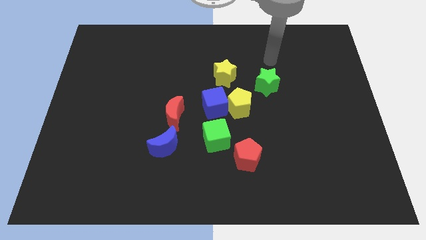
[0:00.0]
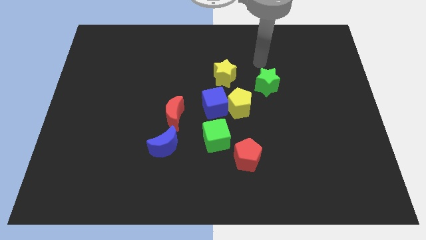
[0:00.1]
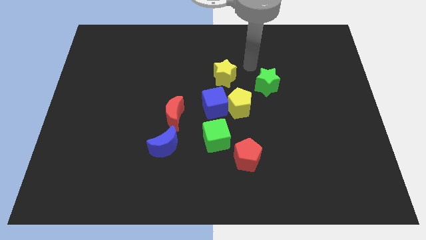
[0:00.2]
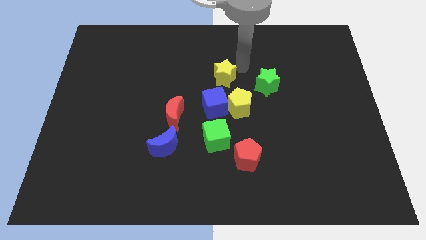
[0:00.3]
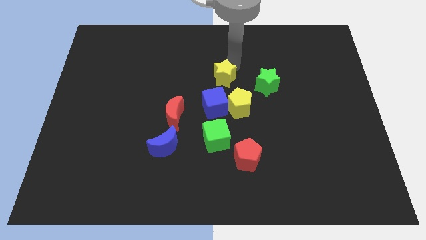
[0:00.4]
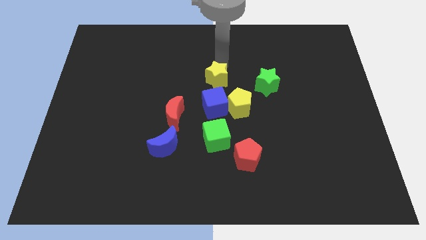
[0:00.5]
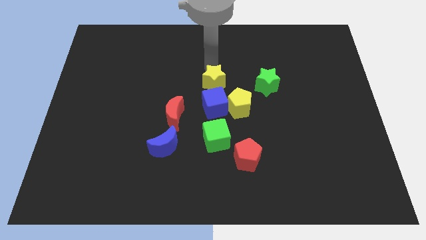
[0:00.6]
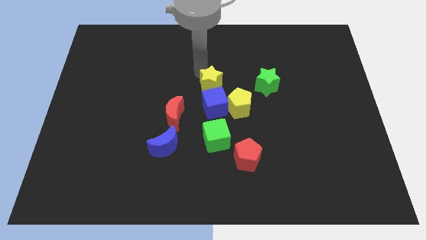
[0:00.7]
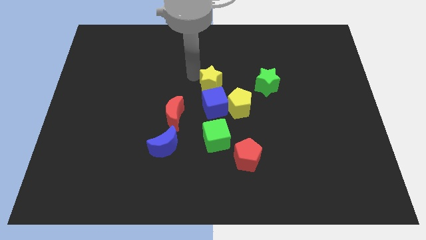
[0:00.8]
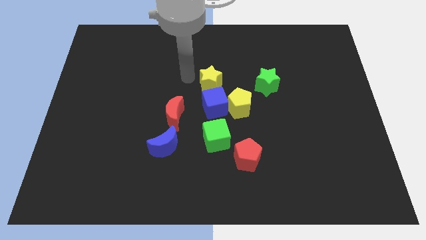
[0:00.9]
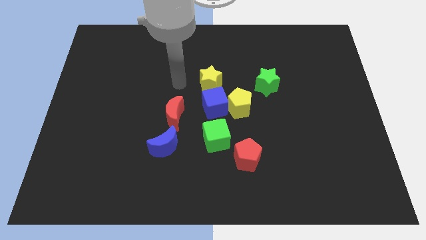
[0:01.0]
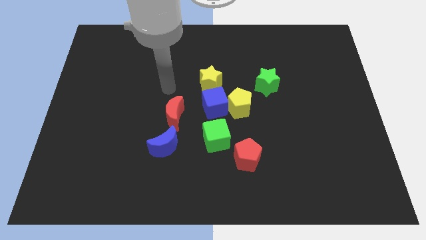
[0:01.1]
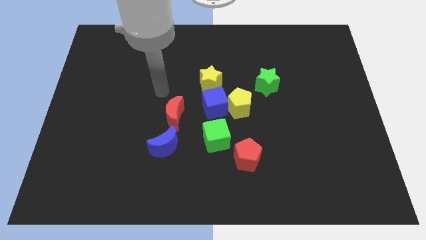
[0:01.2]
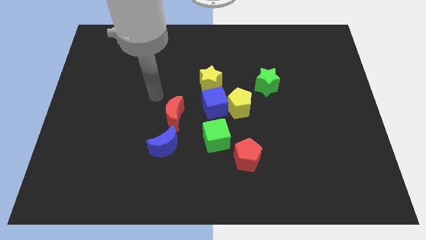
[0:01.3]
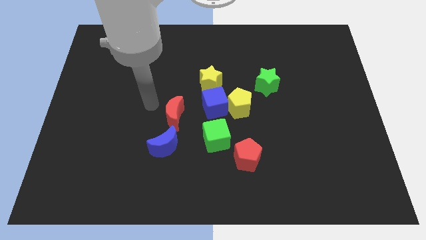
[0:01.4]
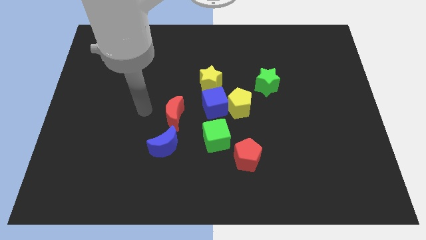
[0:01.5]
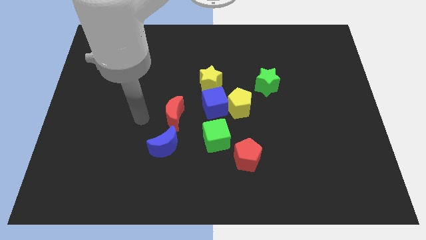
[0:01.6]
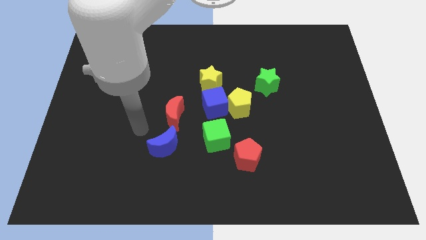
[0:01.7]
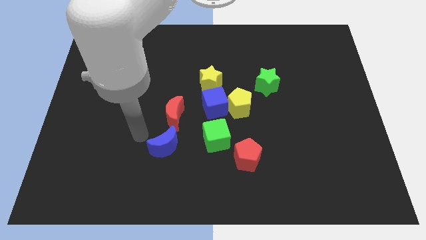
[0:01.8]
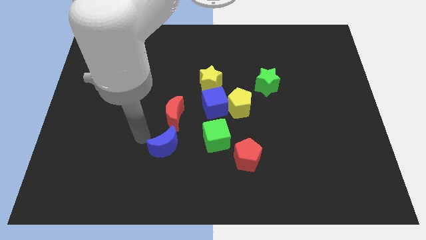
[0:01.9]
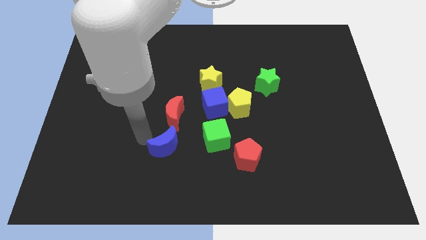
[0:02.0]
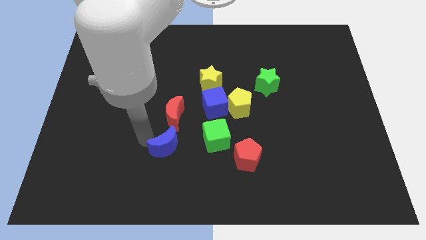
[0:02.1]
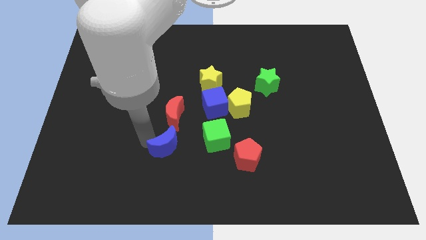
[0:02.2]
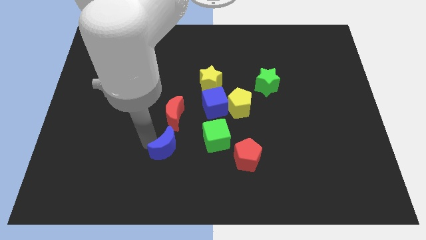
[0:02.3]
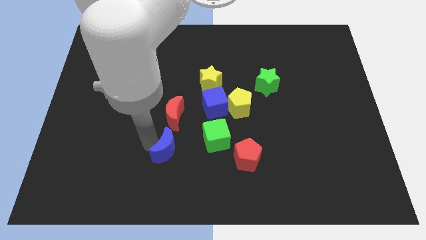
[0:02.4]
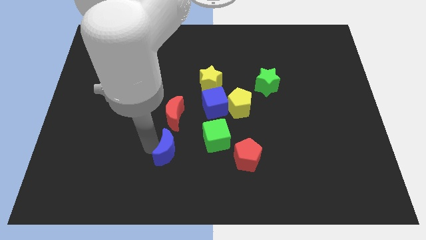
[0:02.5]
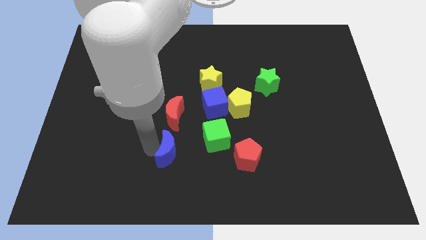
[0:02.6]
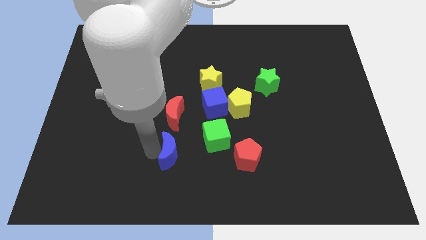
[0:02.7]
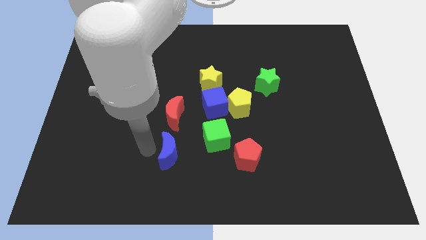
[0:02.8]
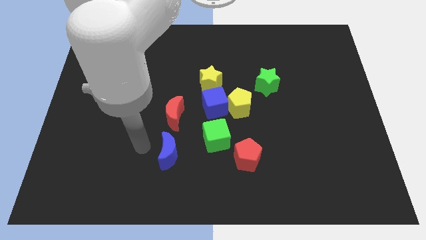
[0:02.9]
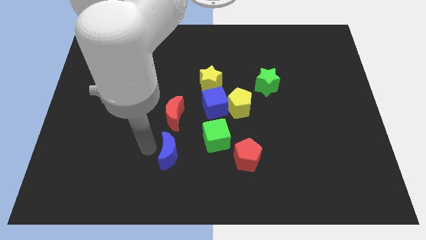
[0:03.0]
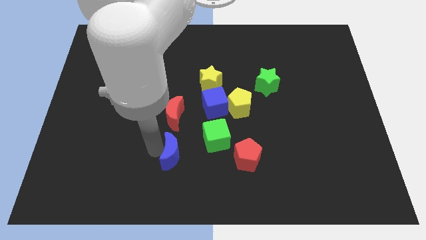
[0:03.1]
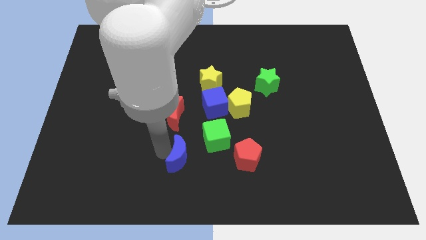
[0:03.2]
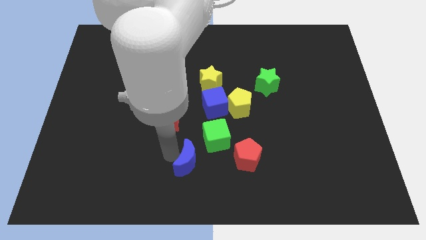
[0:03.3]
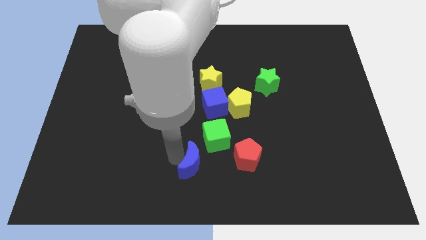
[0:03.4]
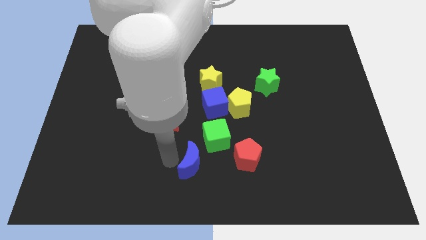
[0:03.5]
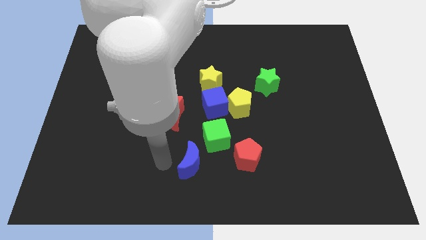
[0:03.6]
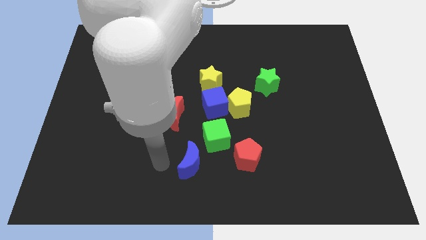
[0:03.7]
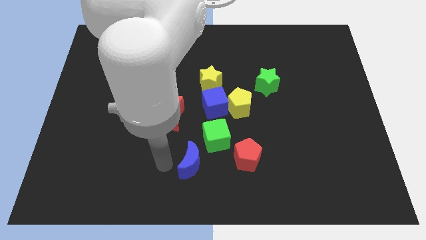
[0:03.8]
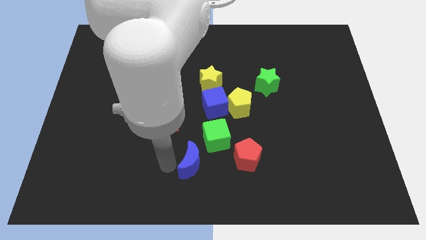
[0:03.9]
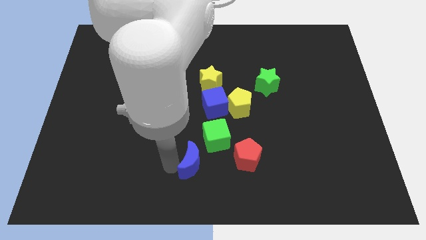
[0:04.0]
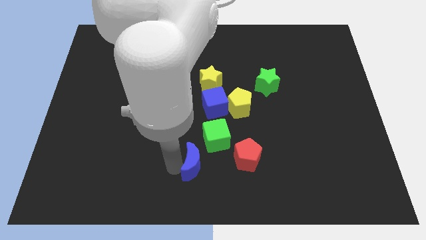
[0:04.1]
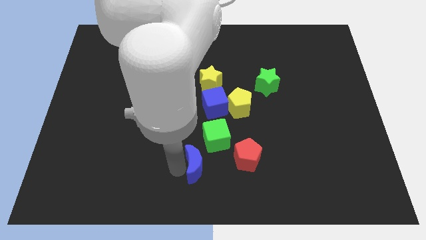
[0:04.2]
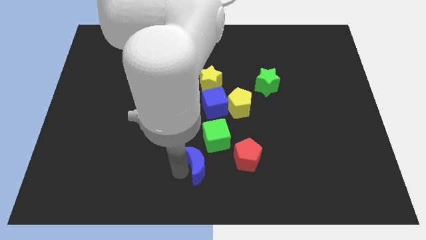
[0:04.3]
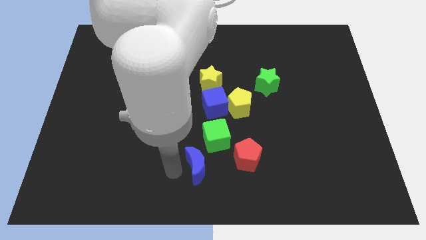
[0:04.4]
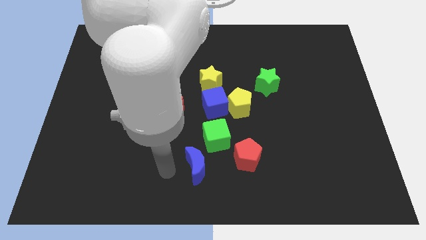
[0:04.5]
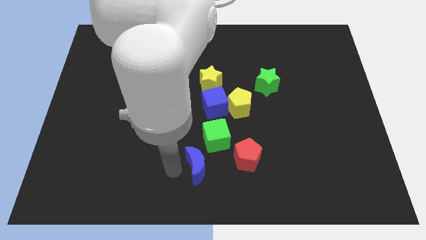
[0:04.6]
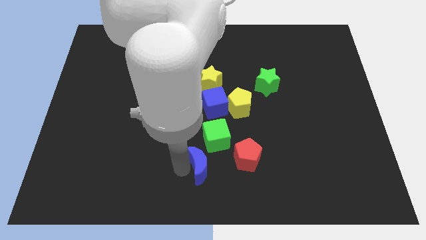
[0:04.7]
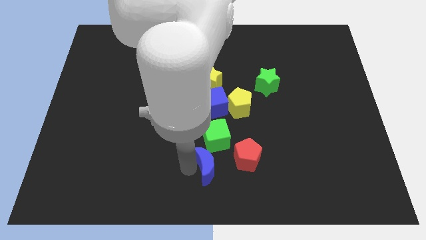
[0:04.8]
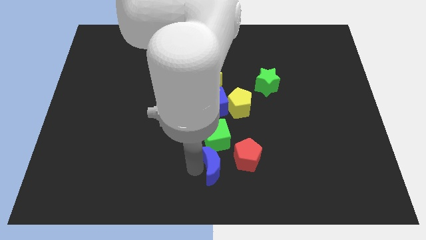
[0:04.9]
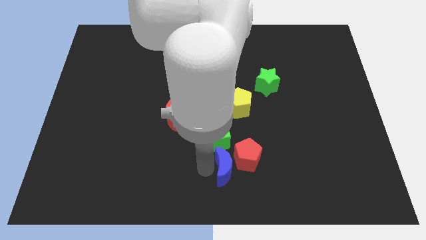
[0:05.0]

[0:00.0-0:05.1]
push the blue moon to the red pentagon

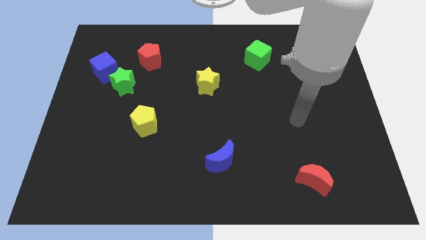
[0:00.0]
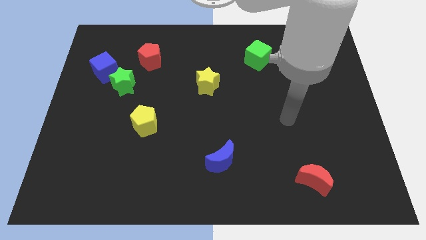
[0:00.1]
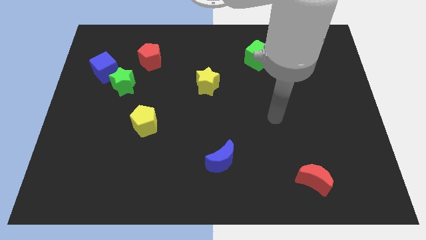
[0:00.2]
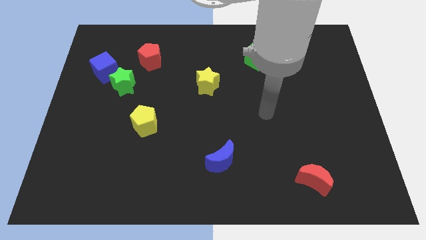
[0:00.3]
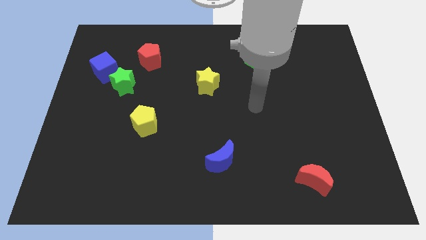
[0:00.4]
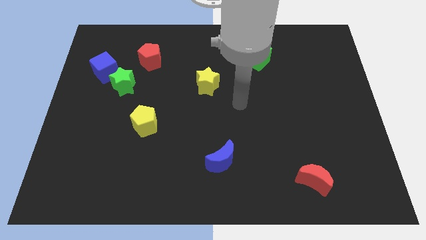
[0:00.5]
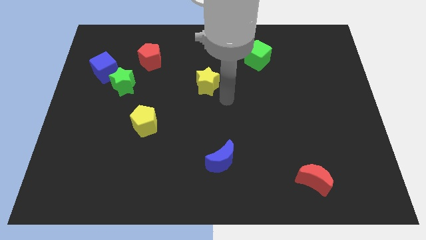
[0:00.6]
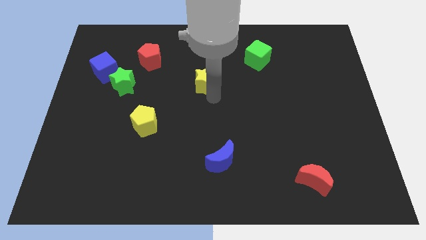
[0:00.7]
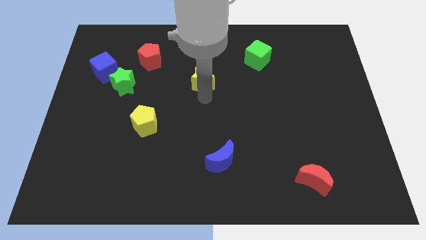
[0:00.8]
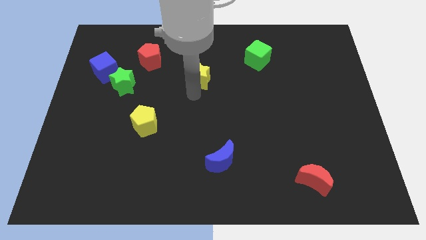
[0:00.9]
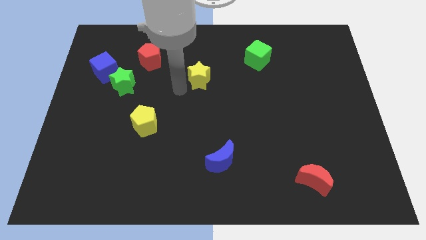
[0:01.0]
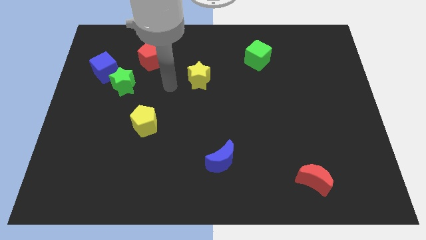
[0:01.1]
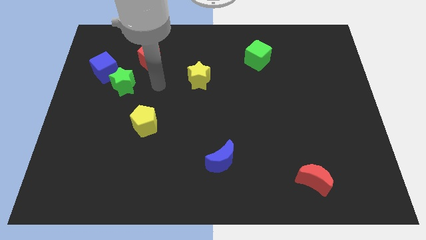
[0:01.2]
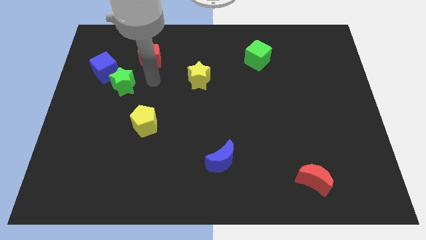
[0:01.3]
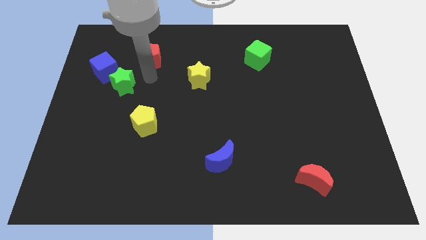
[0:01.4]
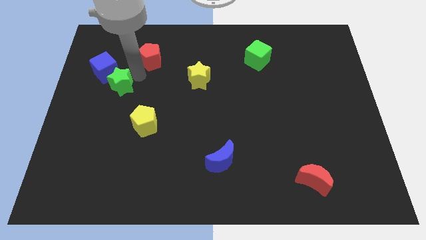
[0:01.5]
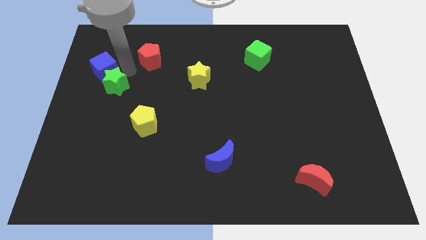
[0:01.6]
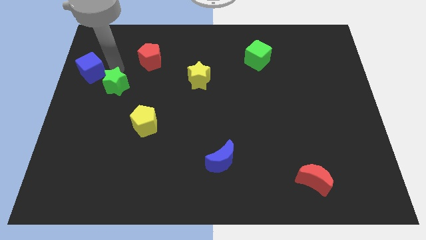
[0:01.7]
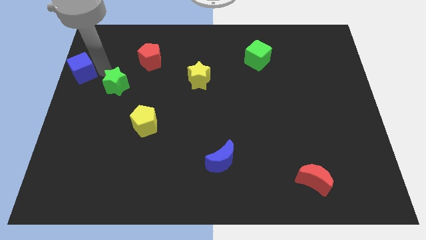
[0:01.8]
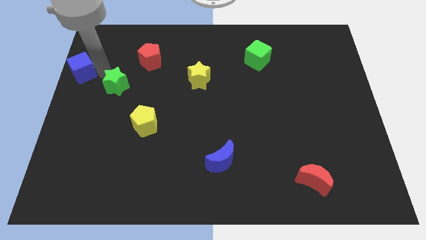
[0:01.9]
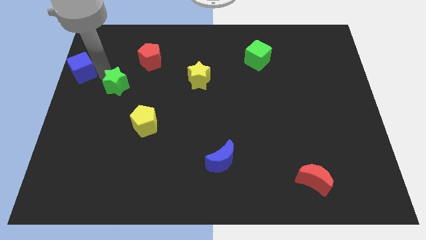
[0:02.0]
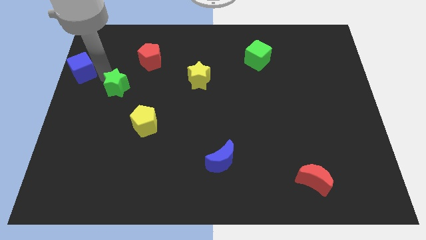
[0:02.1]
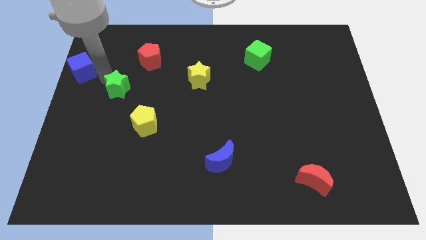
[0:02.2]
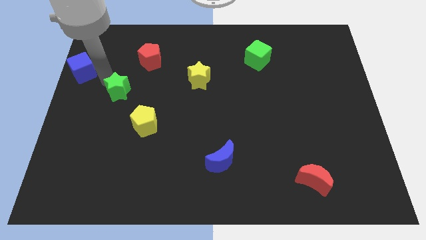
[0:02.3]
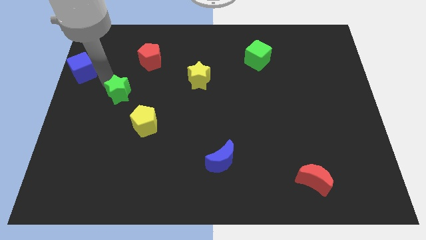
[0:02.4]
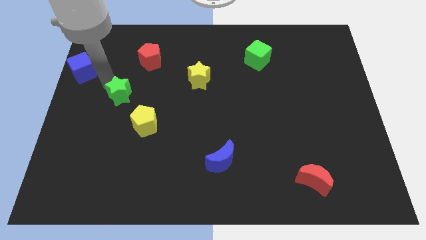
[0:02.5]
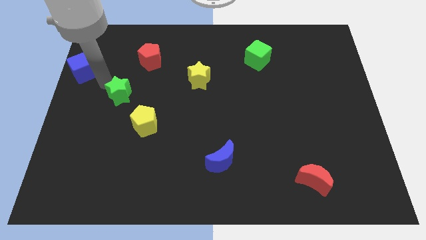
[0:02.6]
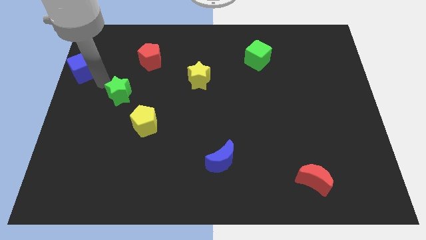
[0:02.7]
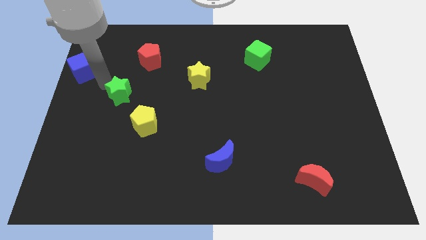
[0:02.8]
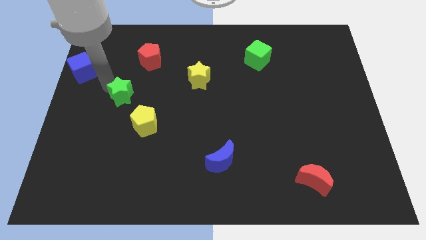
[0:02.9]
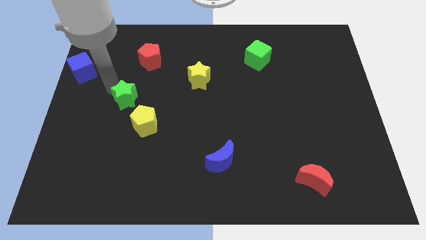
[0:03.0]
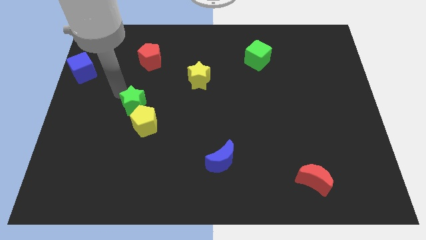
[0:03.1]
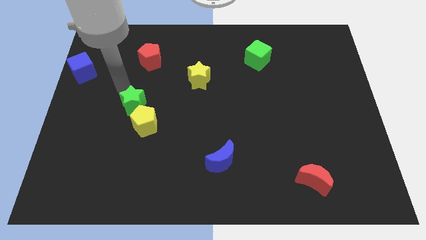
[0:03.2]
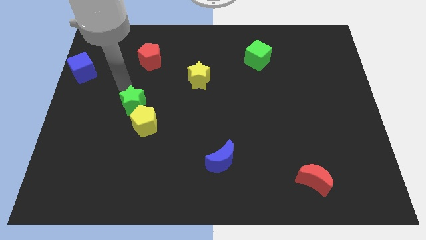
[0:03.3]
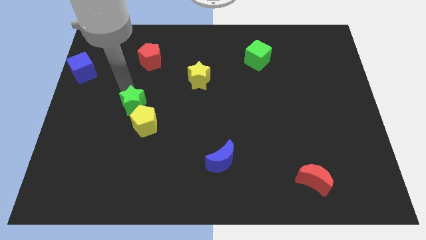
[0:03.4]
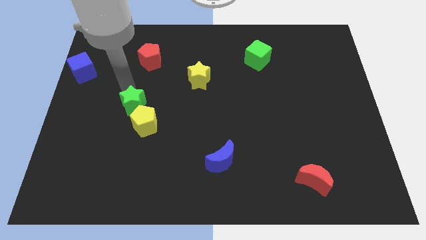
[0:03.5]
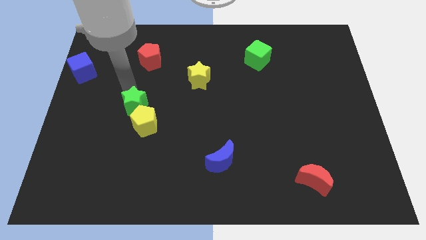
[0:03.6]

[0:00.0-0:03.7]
slide the green star to the yellow pentagon
